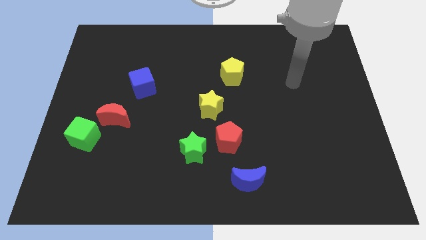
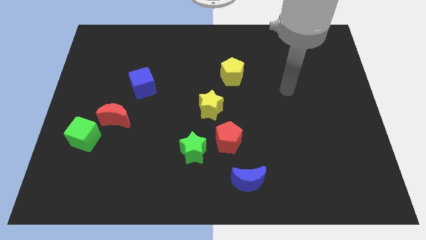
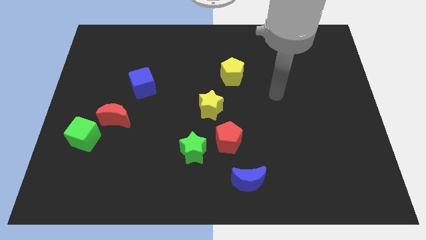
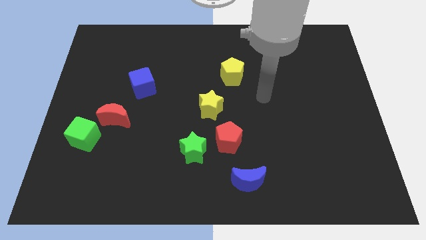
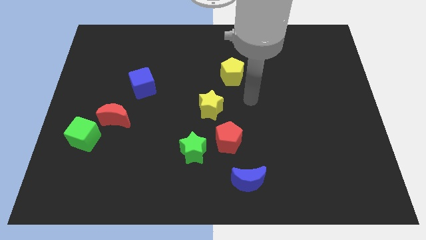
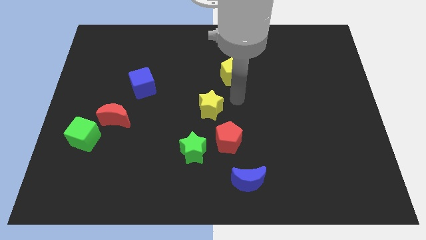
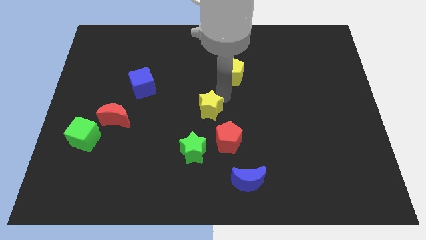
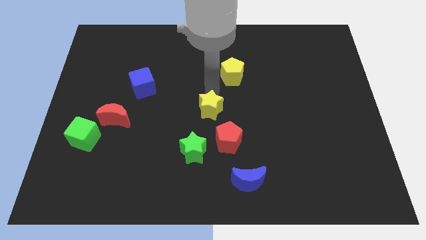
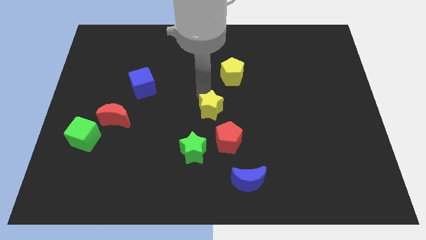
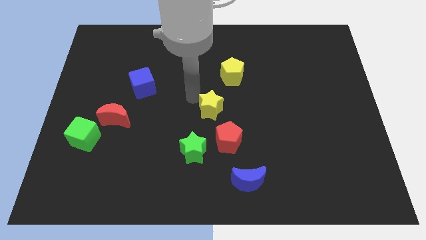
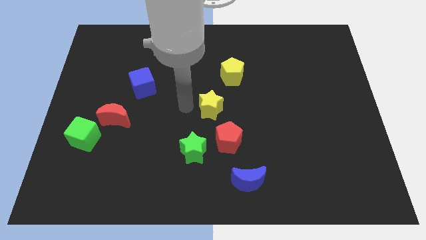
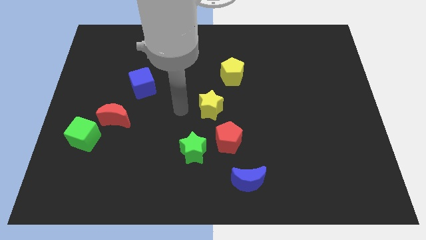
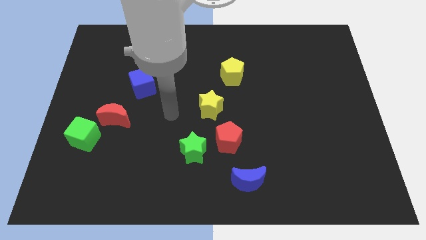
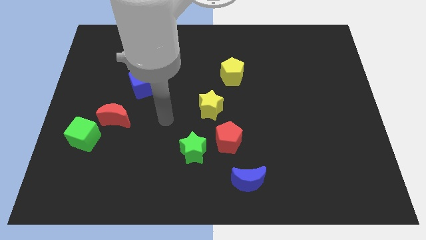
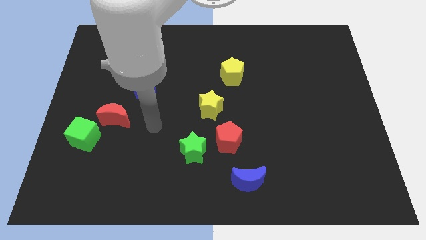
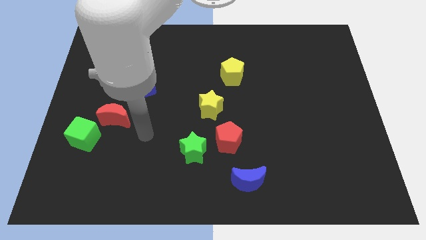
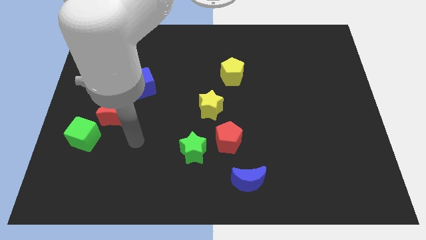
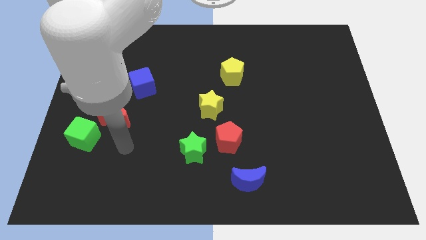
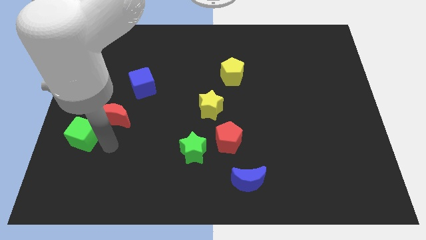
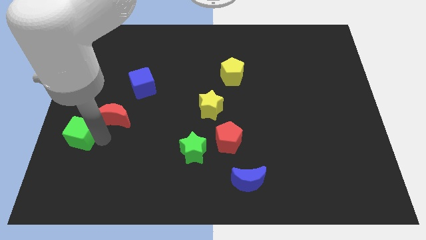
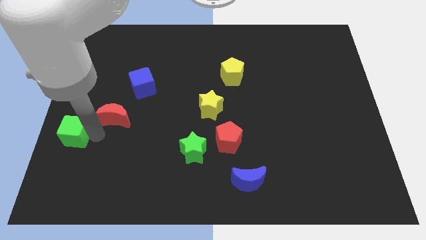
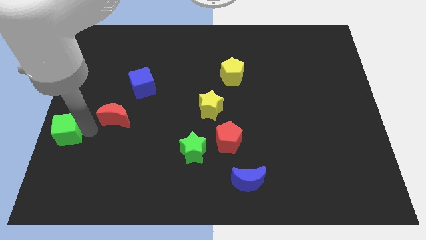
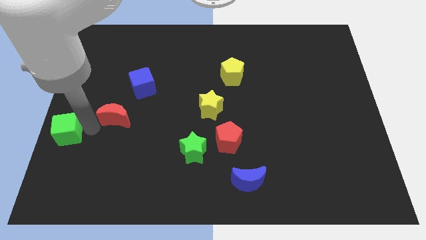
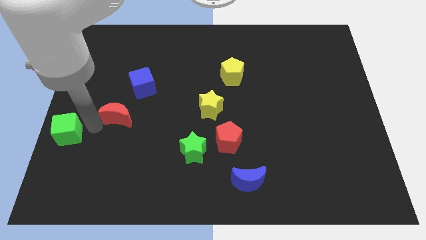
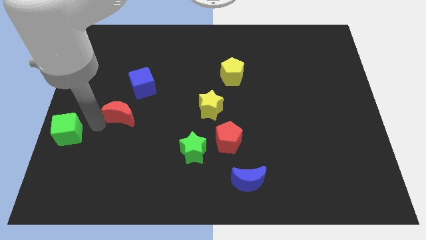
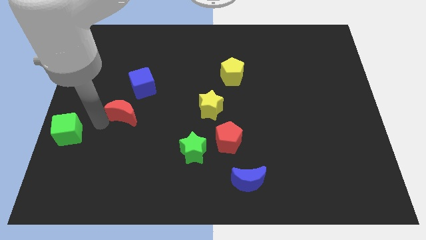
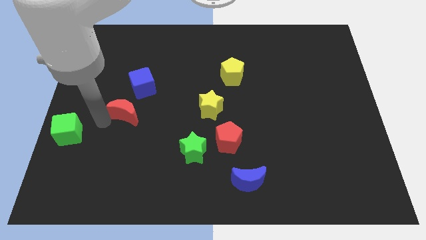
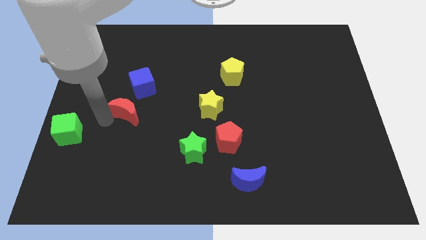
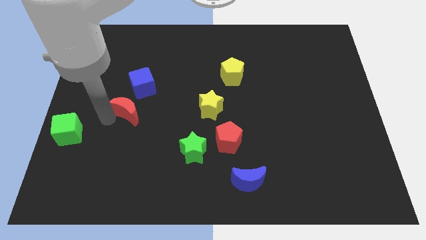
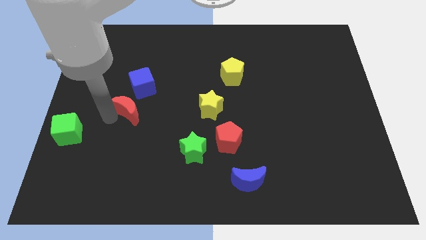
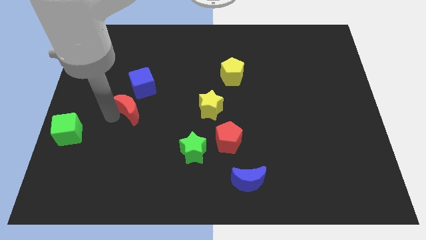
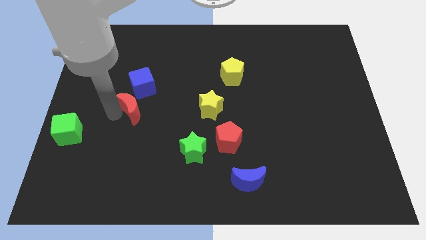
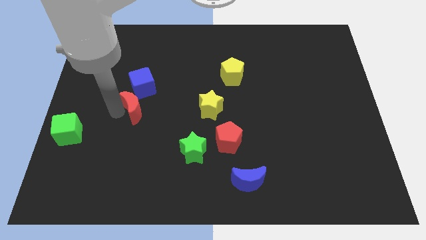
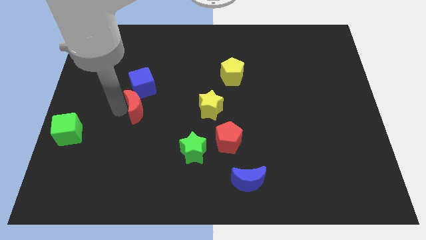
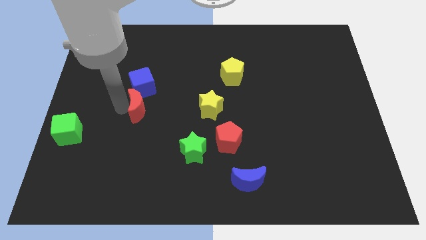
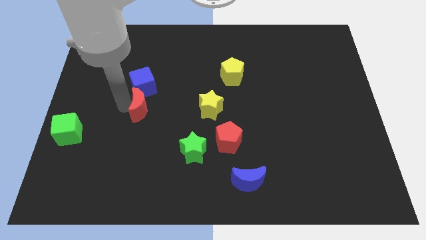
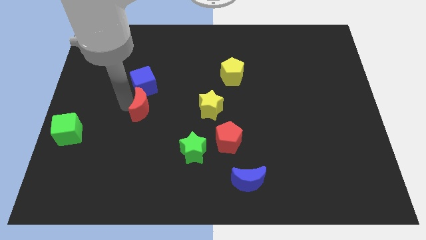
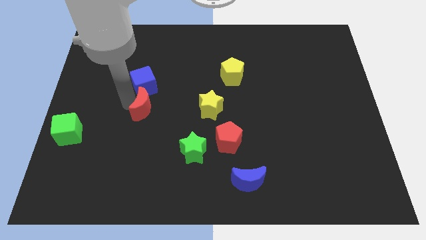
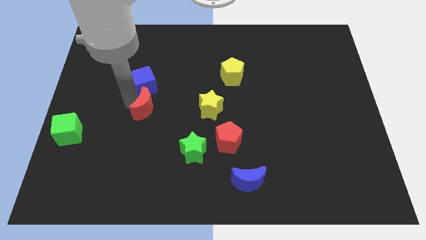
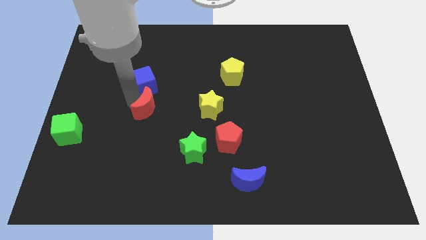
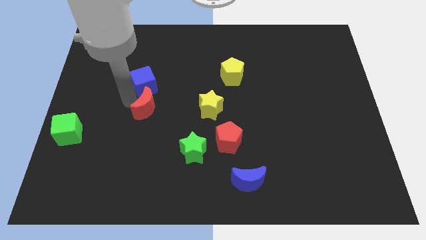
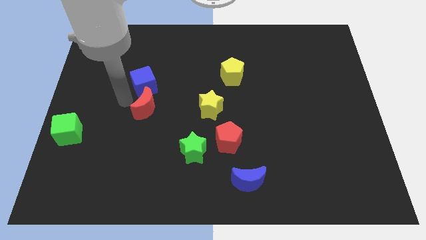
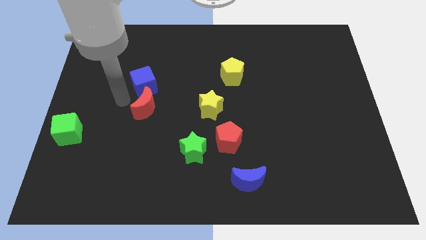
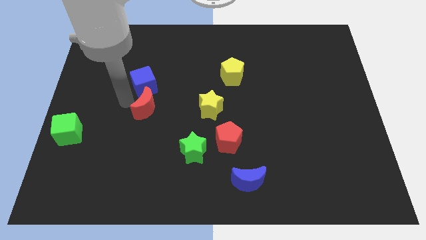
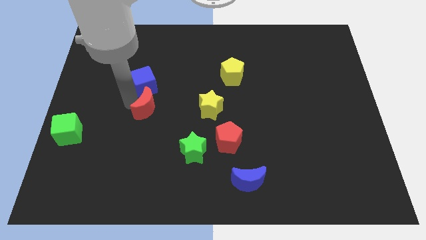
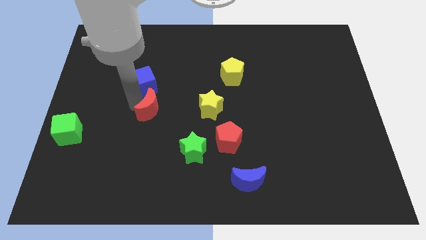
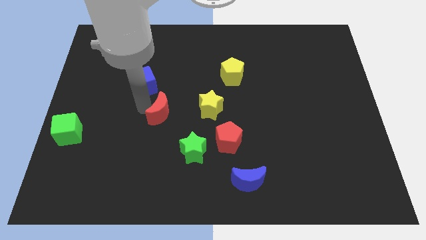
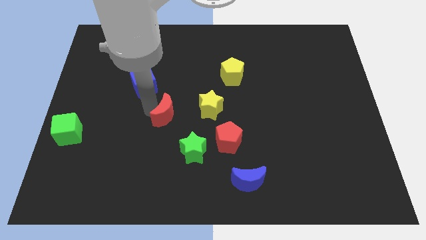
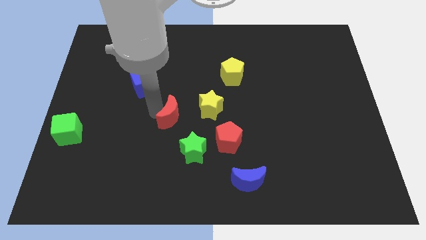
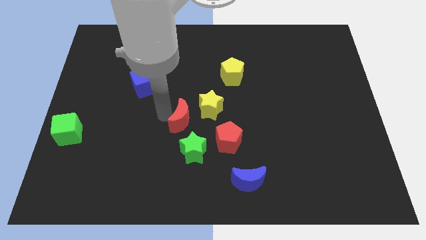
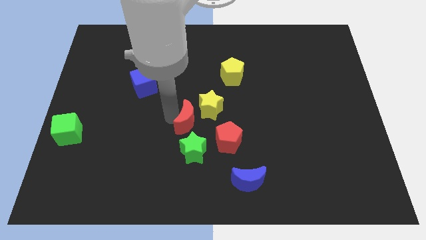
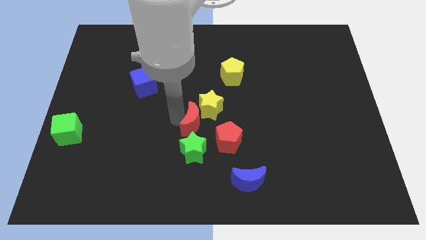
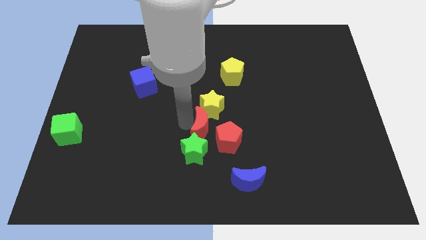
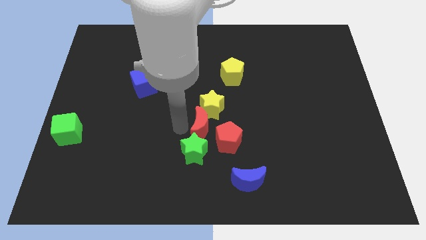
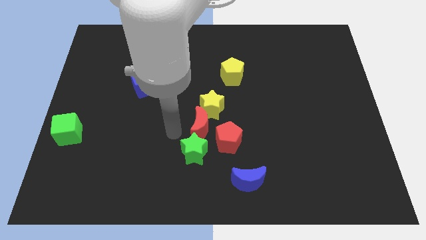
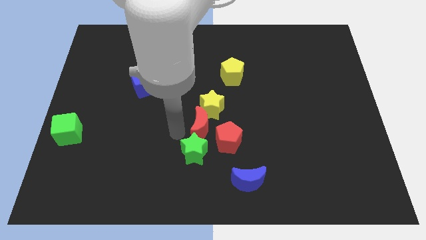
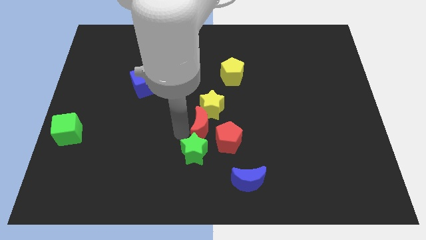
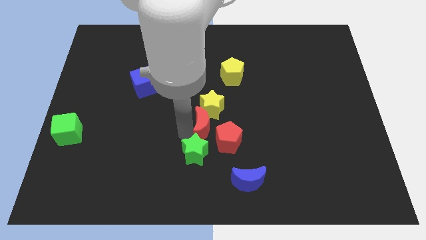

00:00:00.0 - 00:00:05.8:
push the red moon to the right

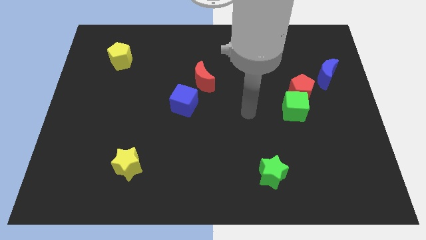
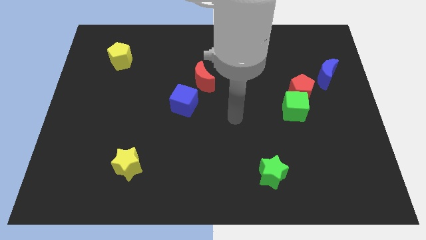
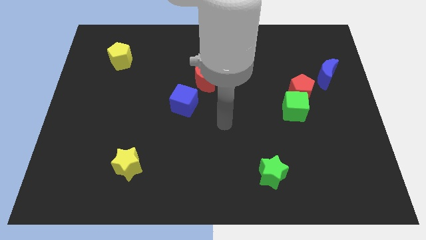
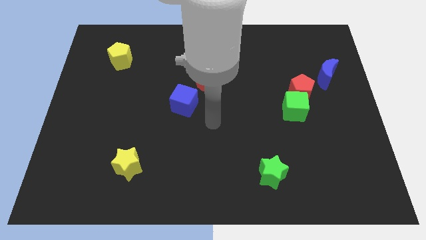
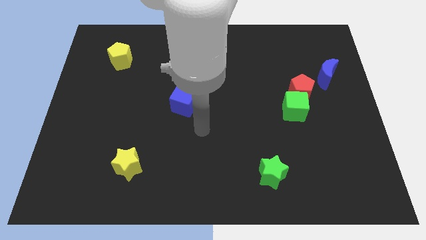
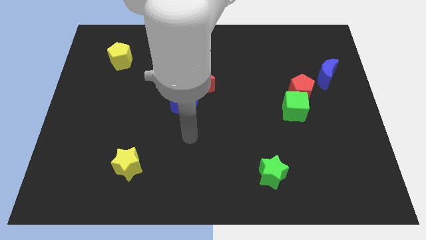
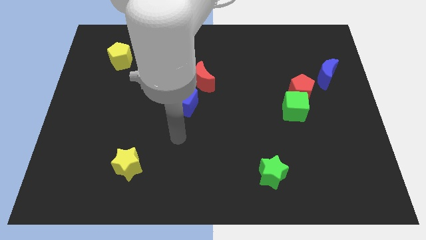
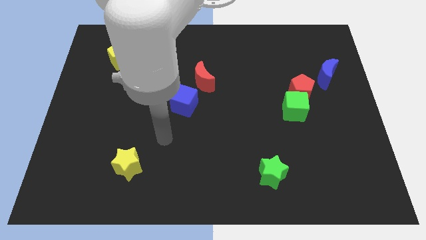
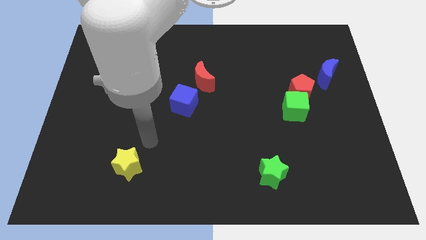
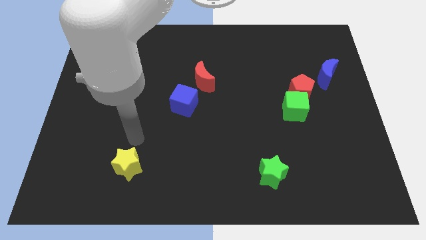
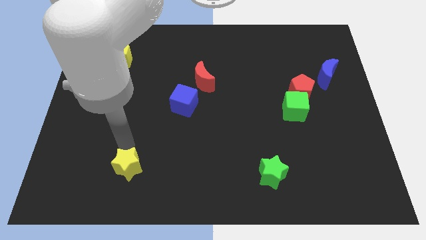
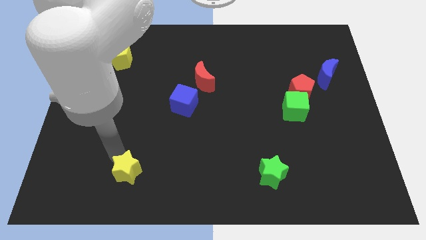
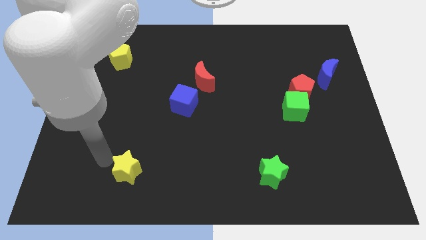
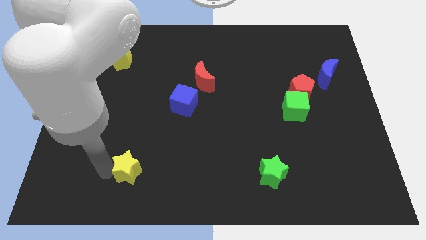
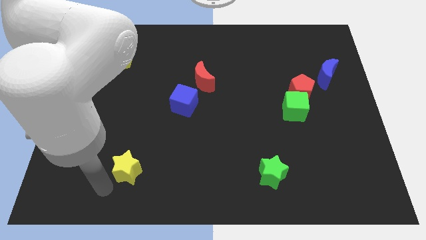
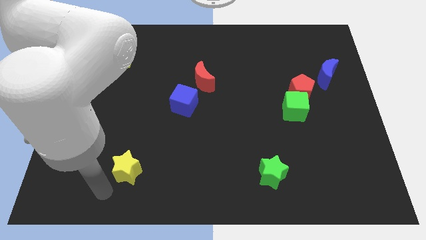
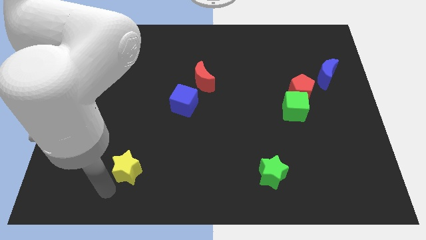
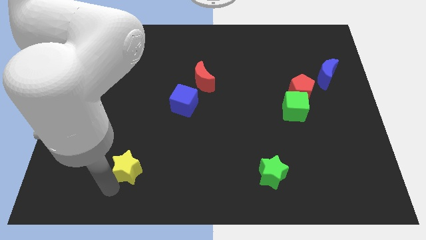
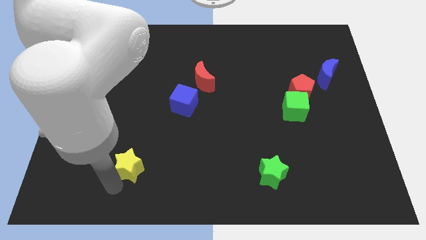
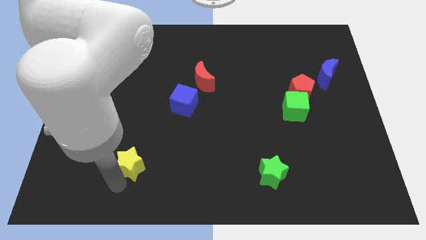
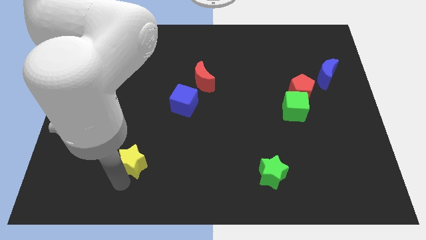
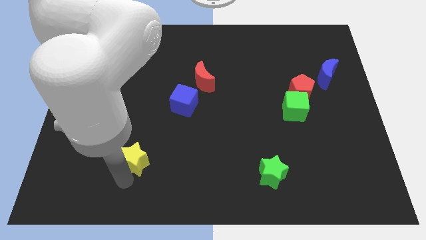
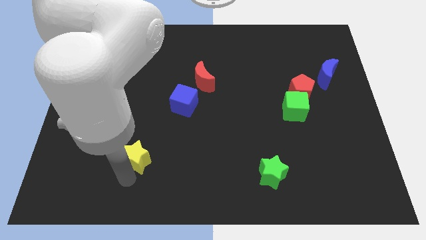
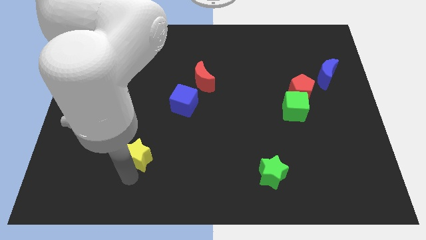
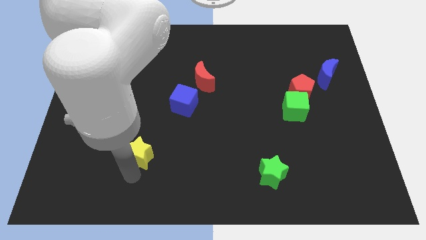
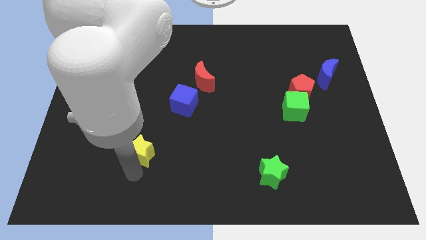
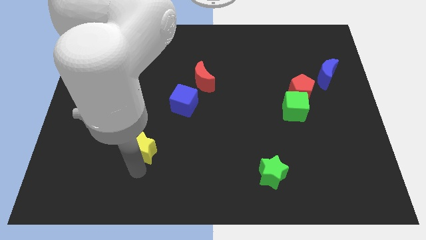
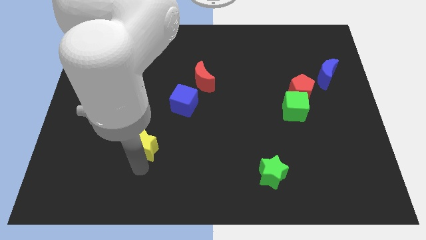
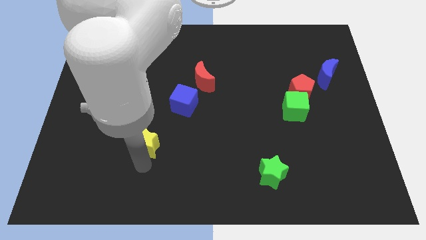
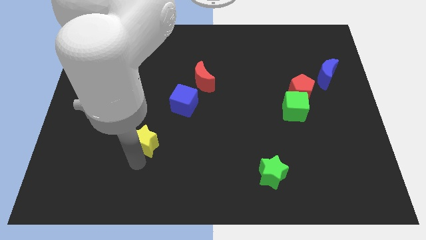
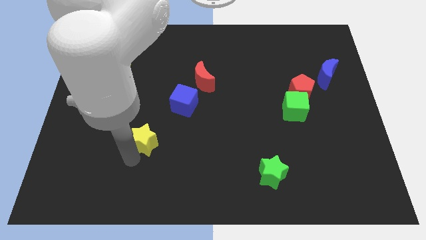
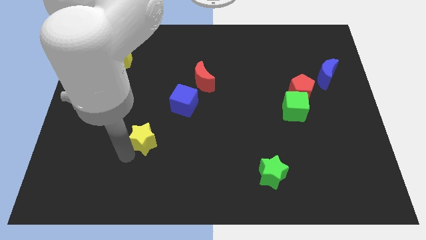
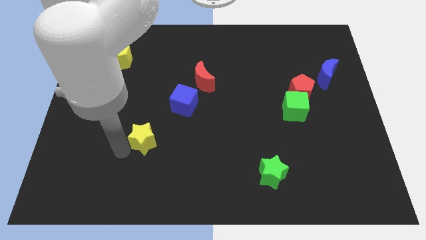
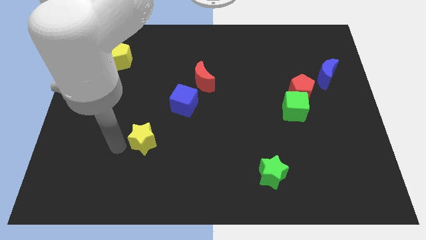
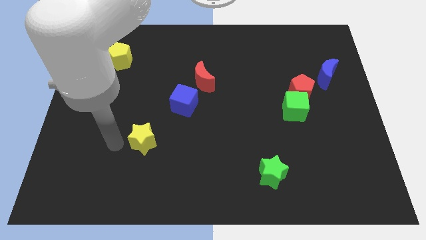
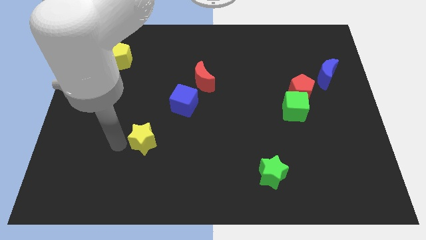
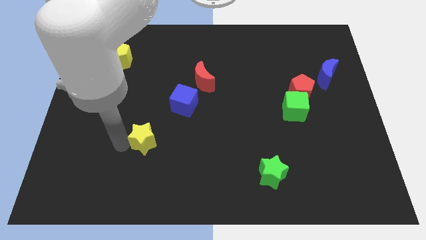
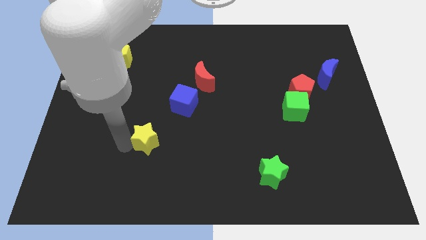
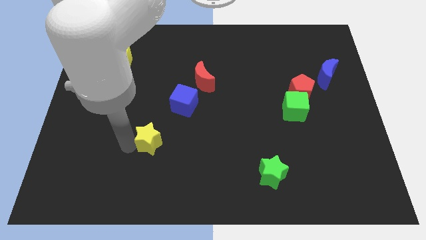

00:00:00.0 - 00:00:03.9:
move the yellow star a little up and right diagonally
